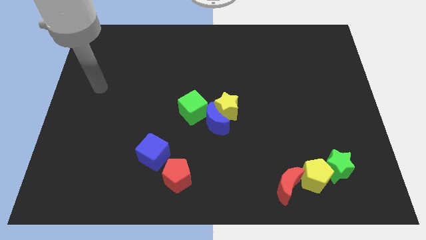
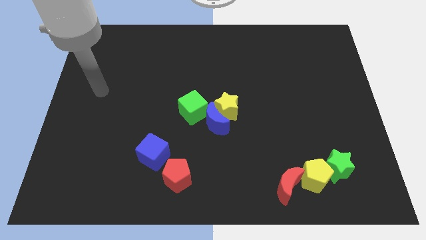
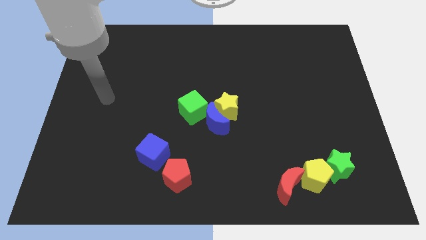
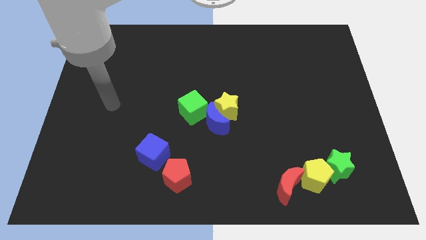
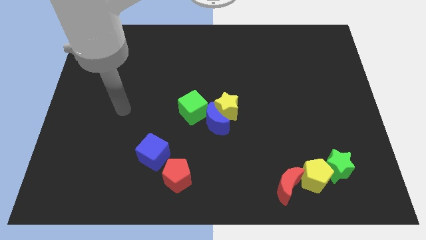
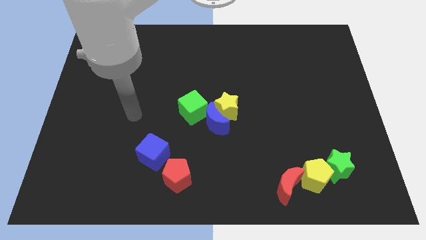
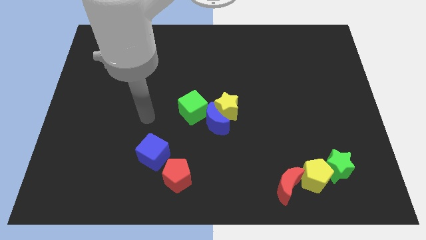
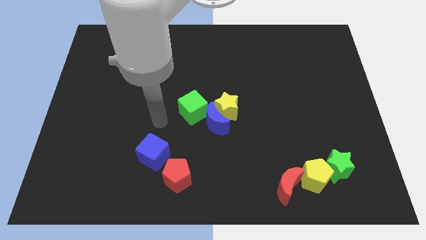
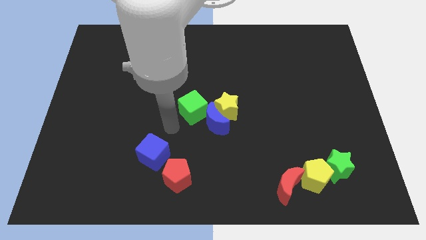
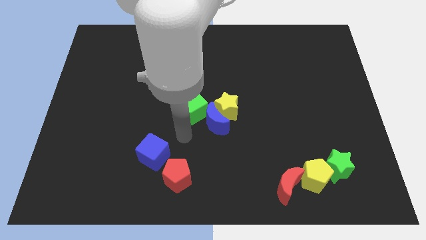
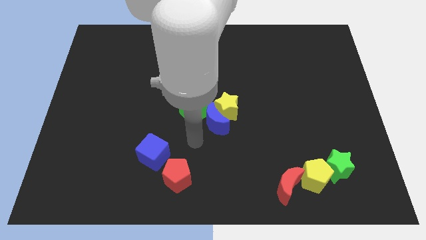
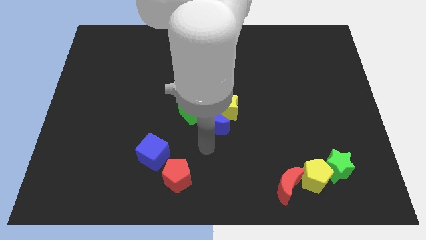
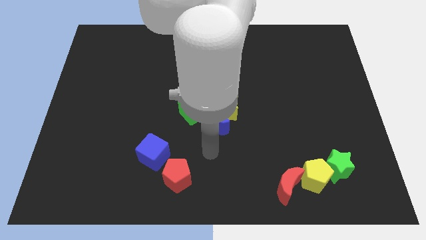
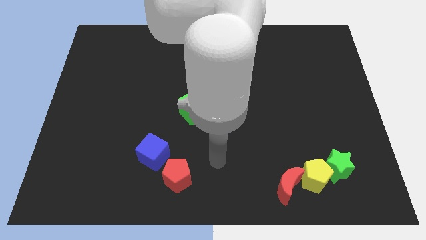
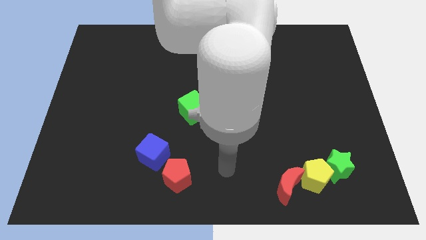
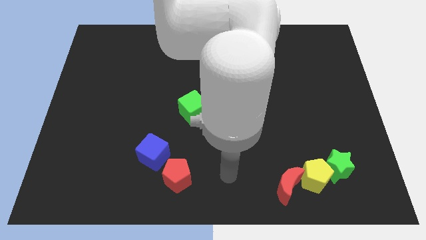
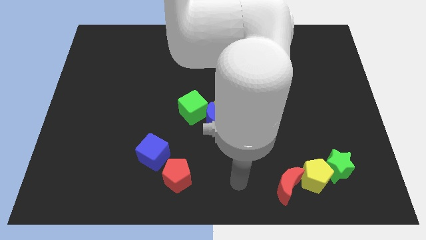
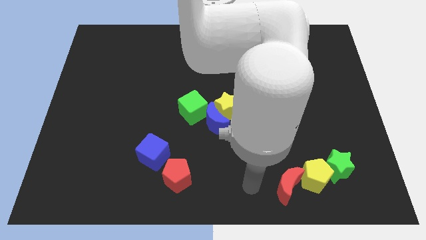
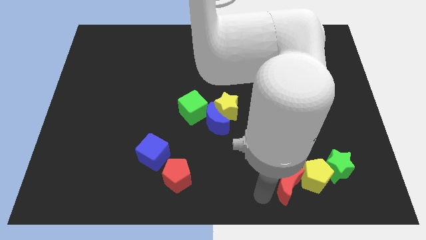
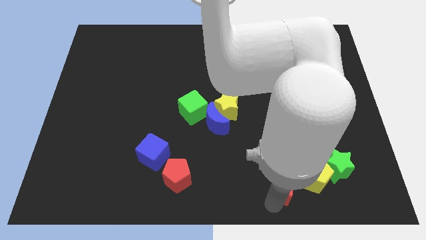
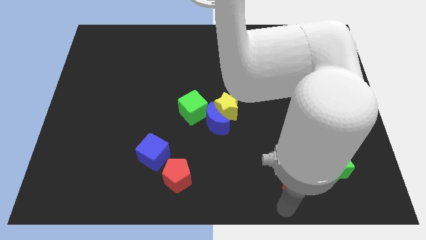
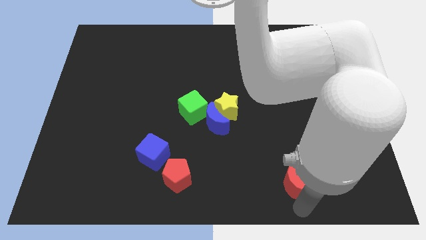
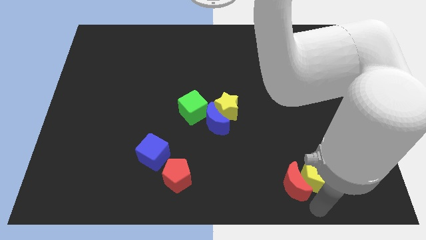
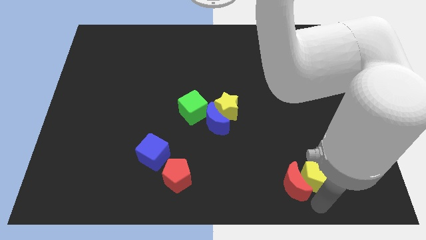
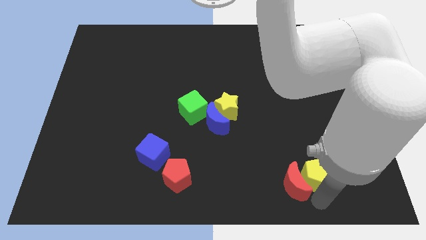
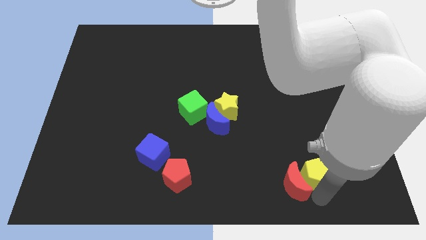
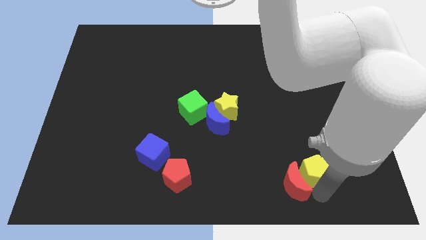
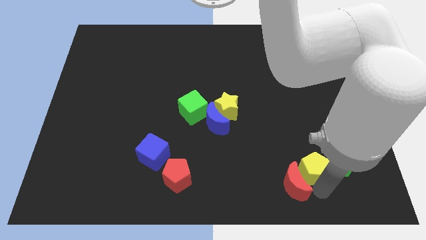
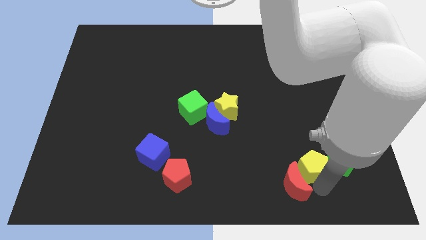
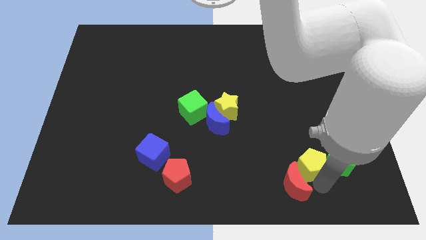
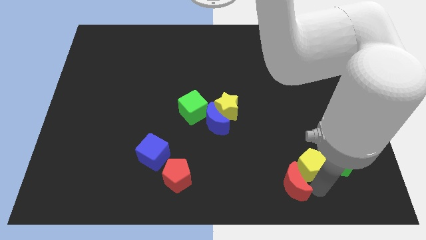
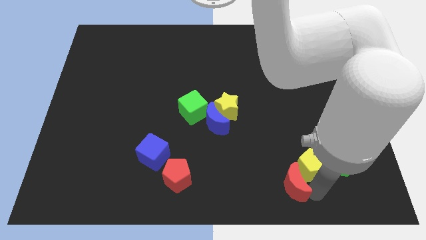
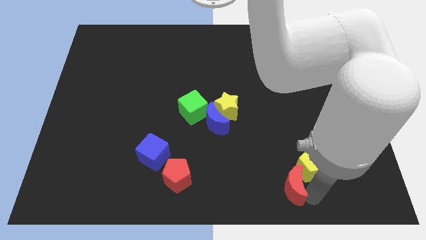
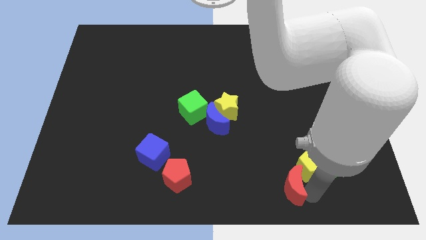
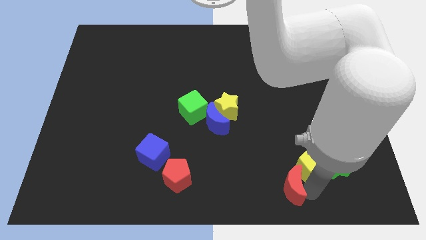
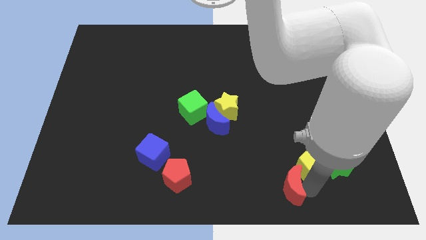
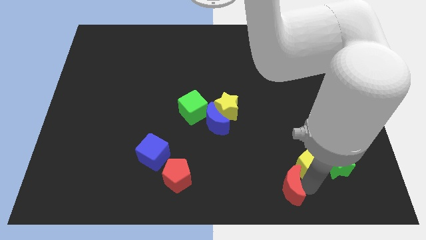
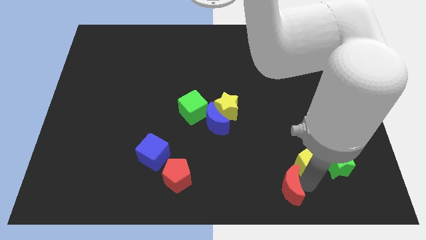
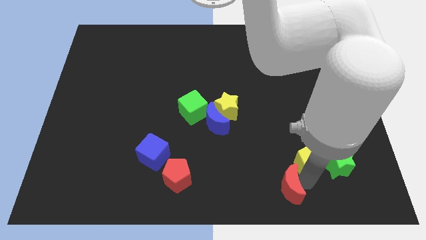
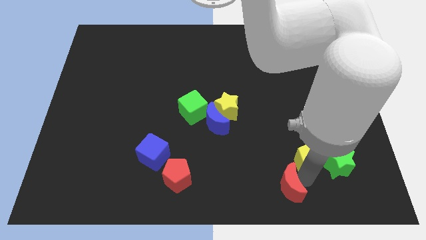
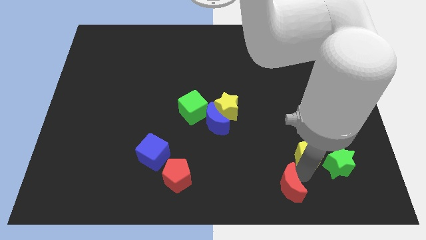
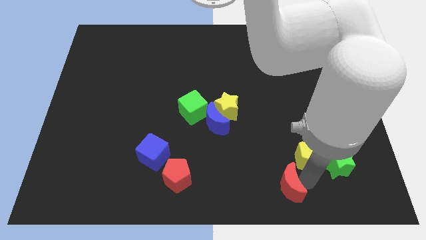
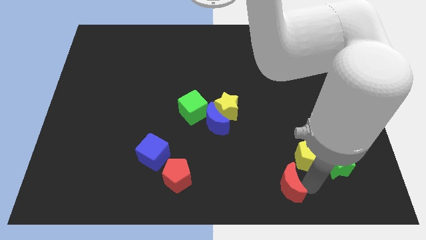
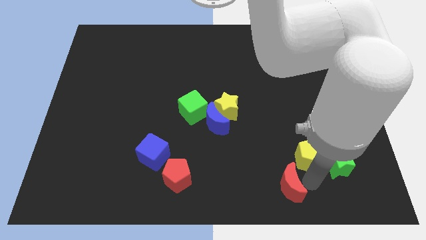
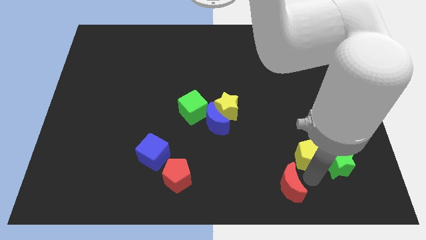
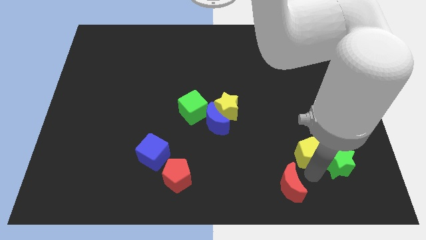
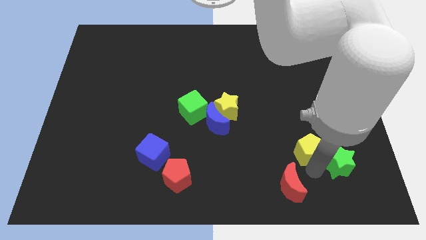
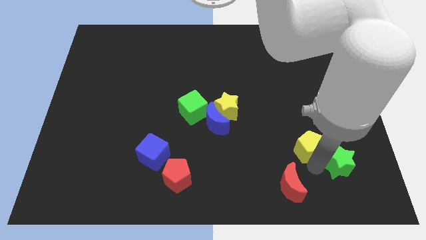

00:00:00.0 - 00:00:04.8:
slightly slide the yellow pentagon upwards

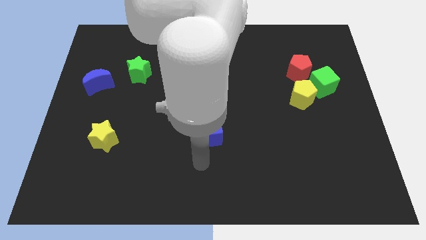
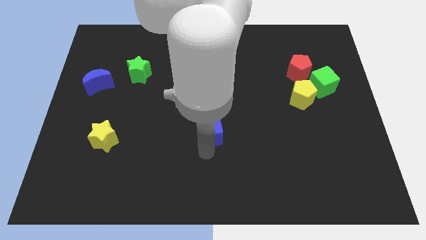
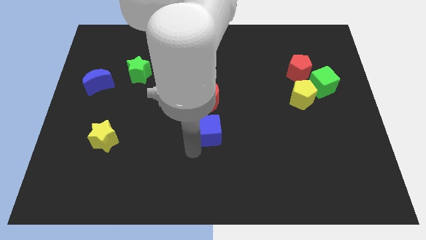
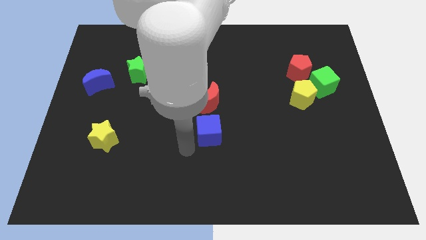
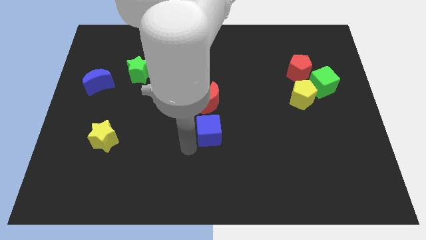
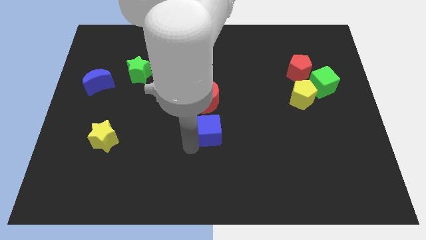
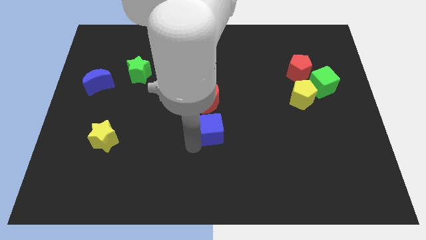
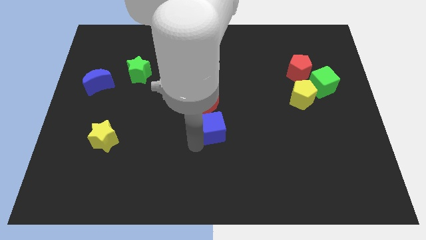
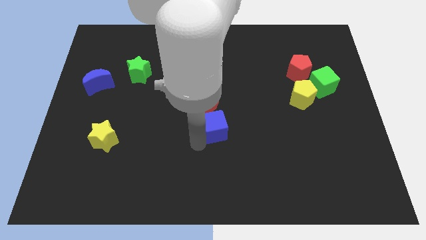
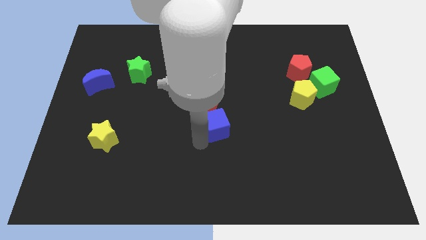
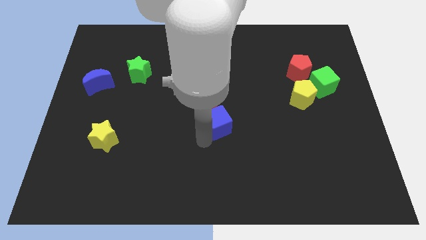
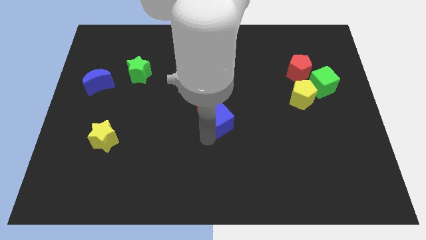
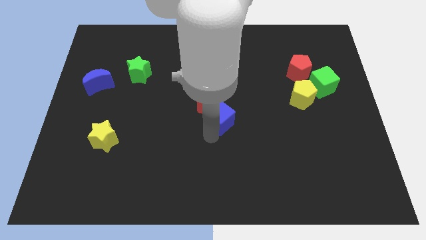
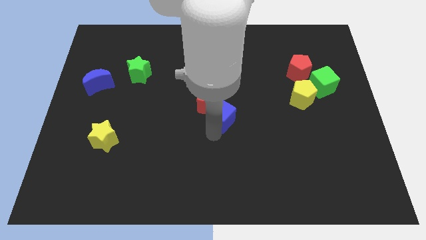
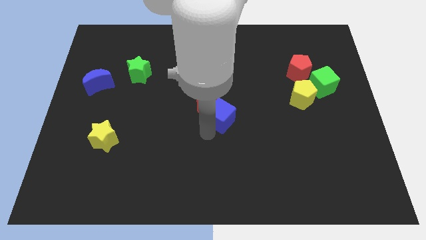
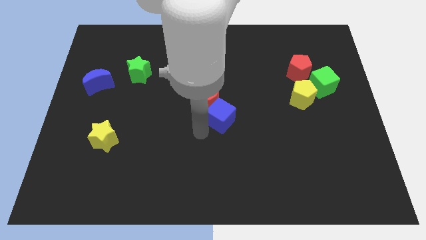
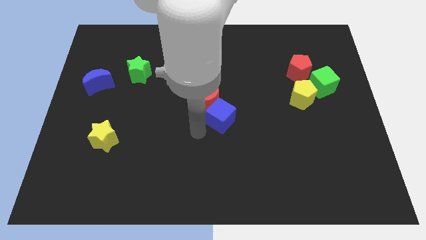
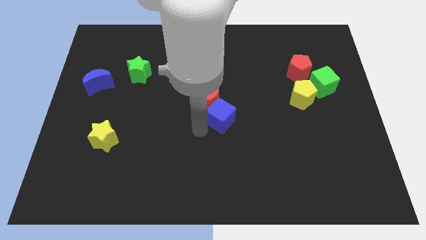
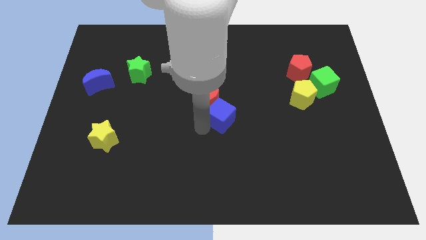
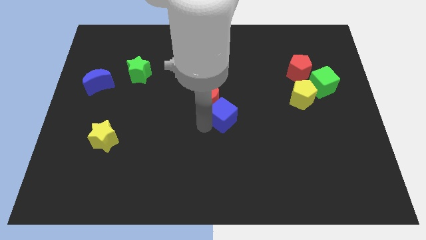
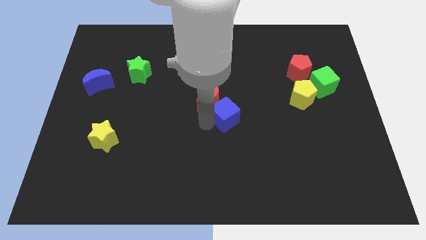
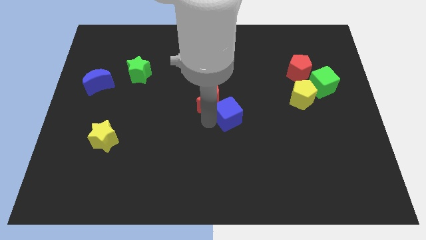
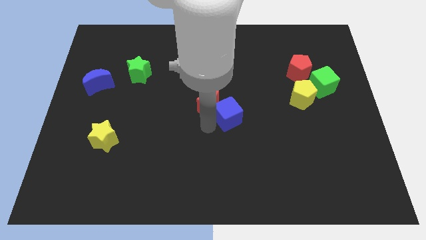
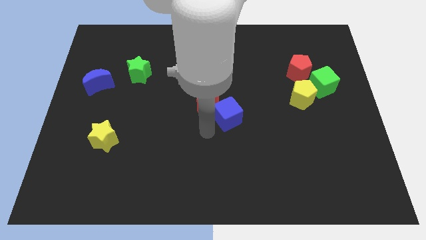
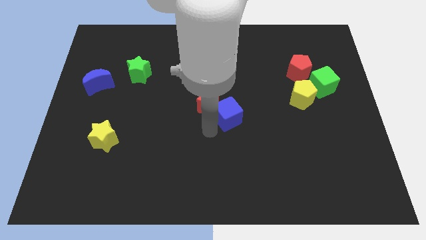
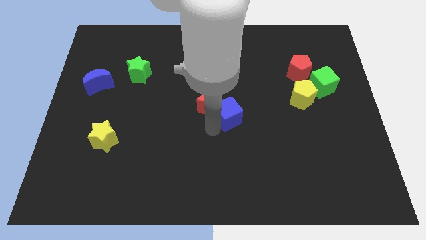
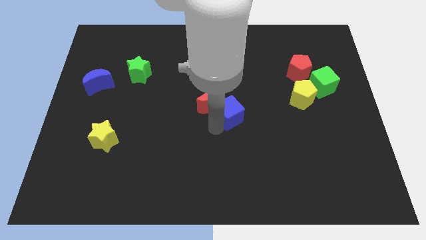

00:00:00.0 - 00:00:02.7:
slightly move the blue cube upwards and to the right

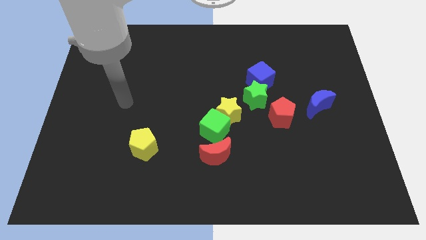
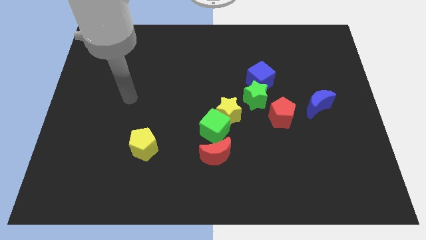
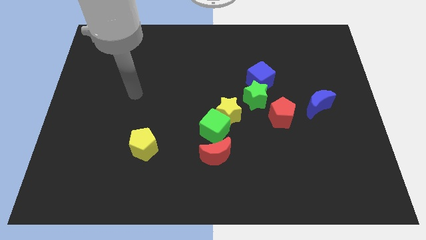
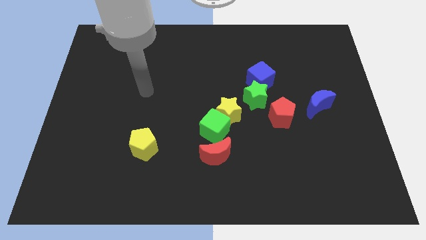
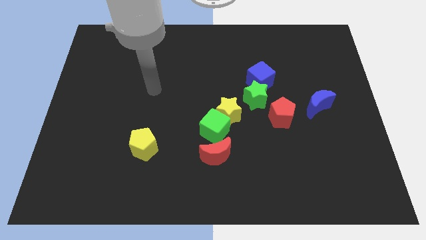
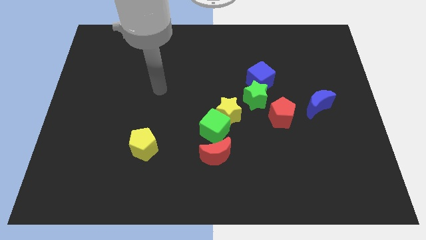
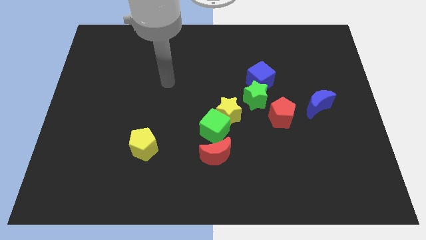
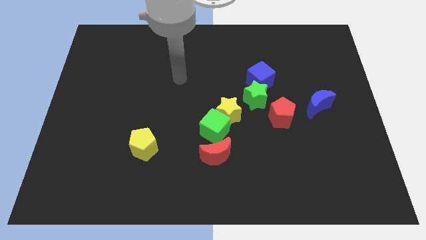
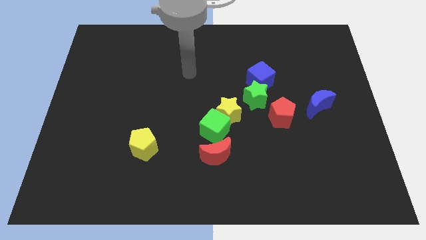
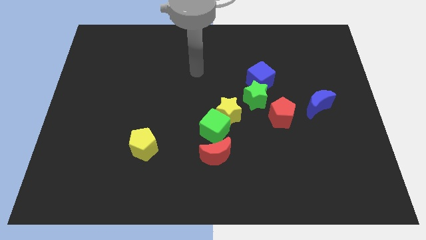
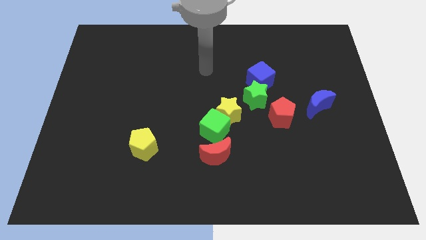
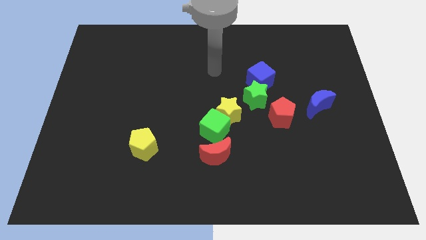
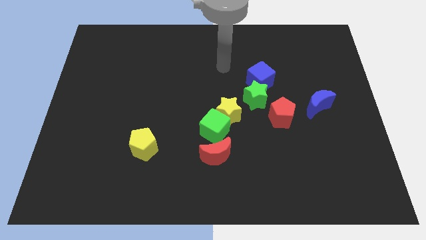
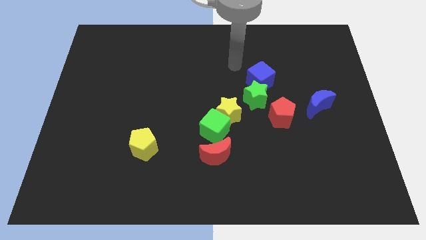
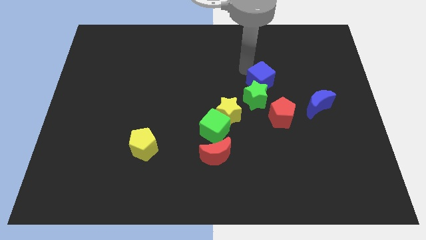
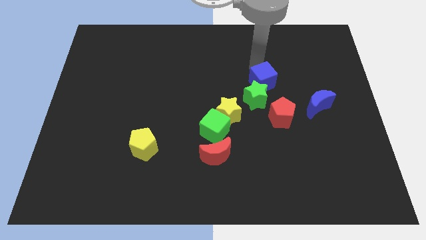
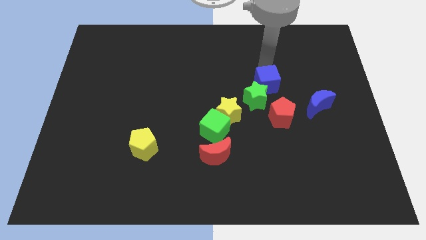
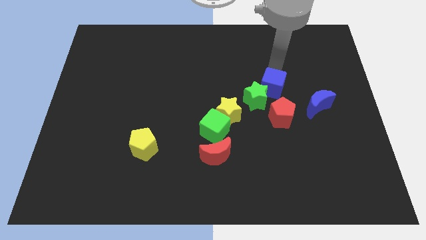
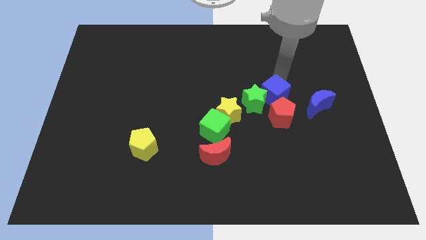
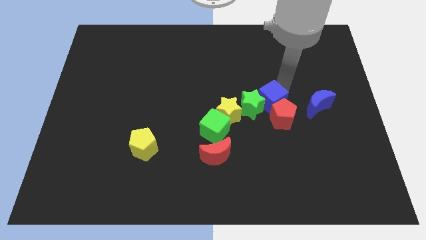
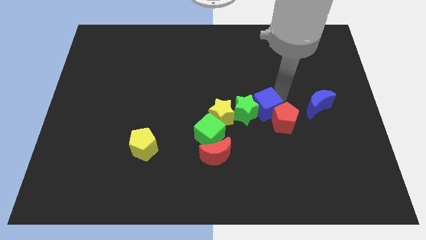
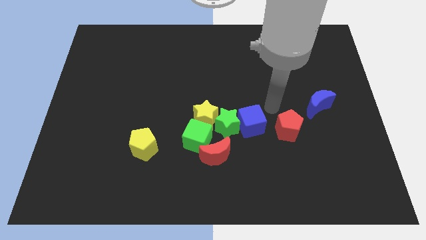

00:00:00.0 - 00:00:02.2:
move the green star slightly downwards and left
